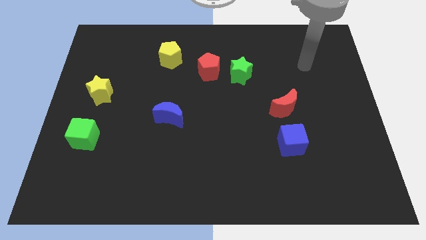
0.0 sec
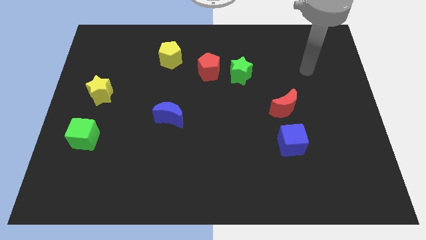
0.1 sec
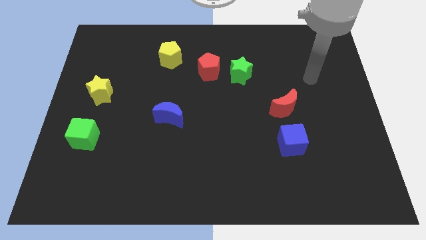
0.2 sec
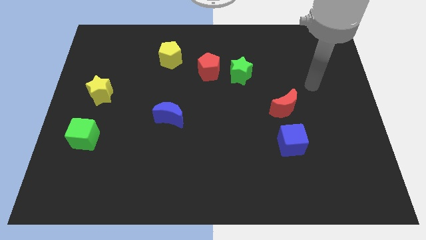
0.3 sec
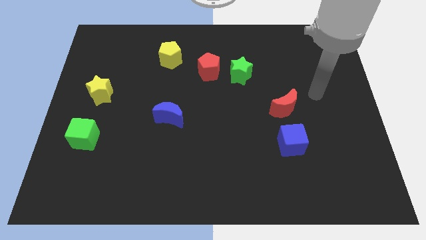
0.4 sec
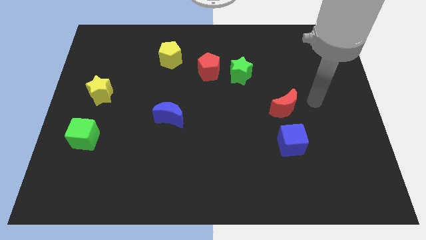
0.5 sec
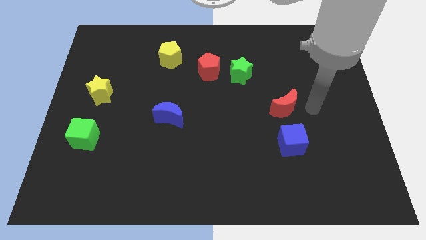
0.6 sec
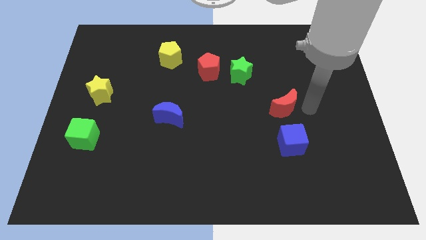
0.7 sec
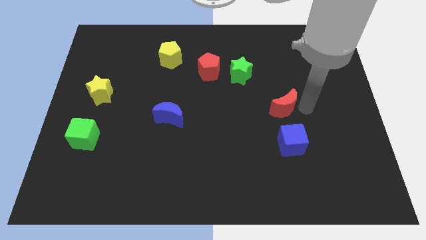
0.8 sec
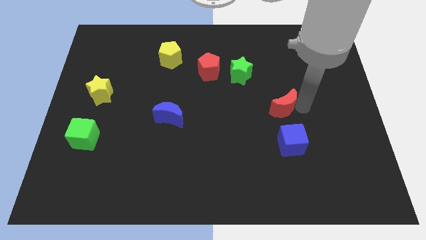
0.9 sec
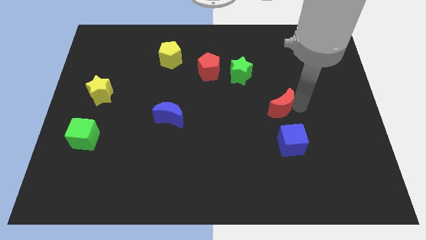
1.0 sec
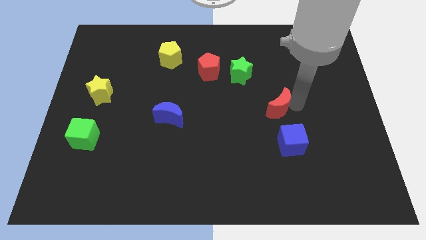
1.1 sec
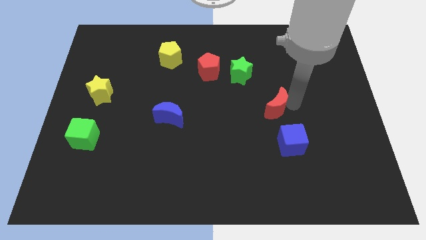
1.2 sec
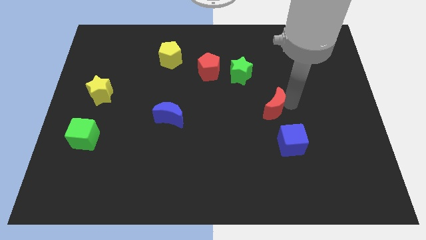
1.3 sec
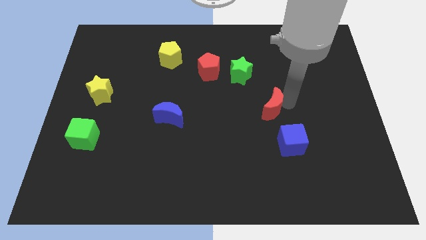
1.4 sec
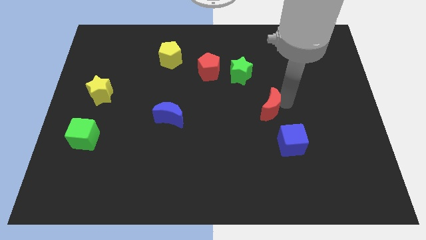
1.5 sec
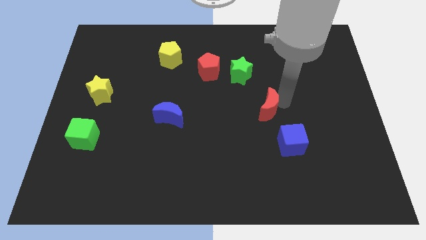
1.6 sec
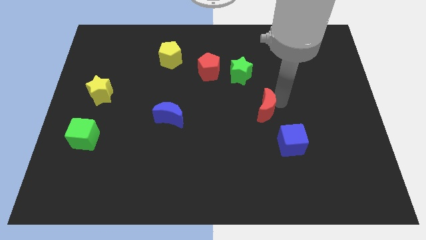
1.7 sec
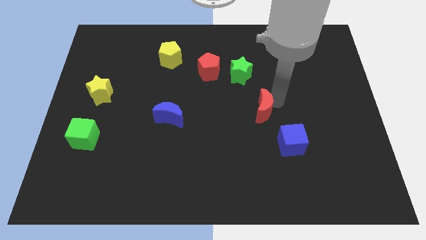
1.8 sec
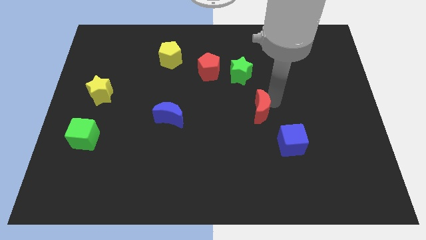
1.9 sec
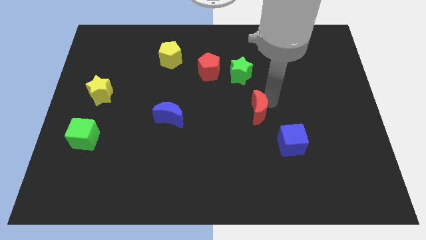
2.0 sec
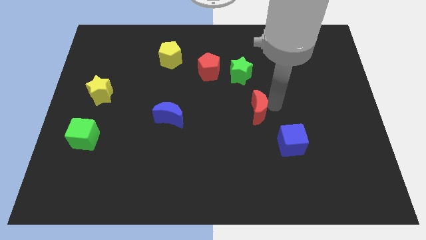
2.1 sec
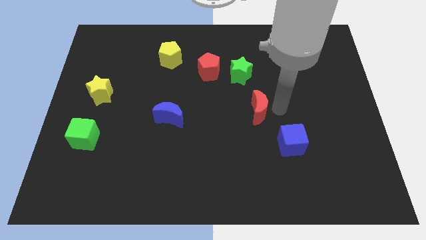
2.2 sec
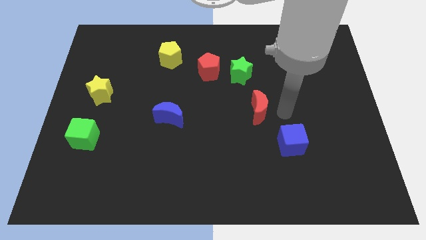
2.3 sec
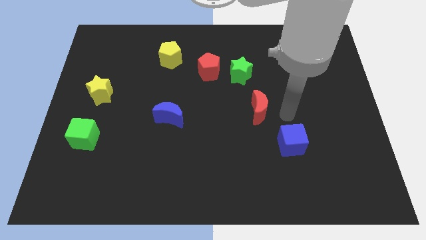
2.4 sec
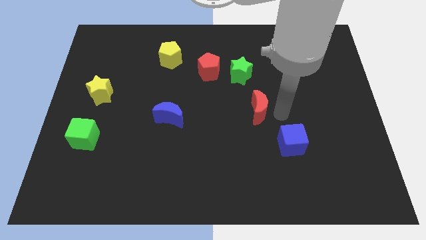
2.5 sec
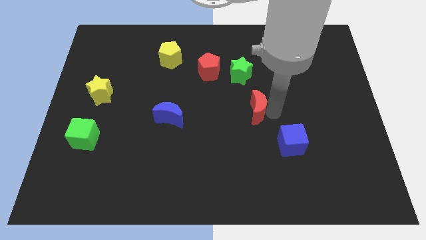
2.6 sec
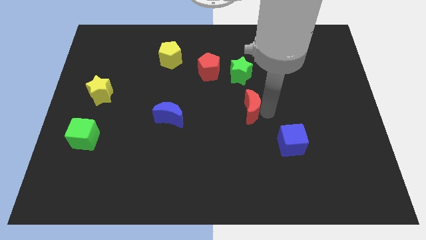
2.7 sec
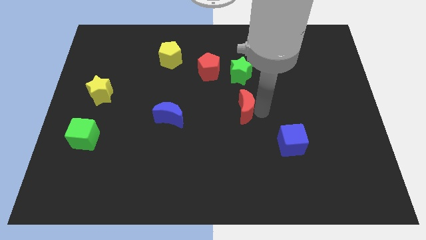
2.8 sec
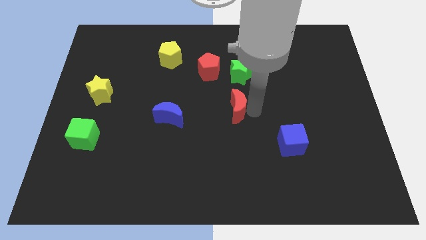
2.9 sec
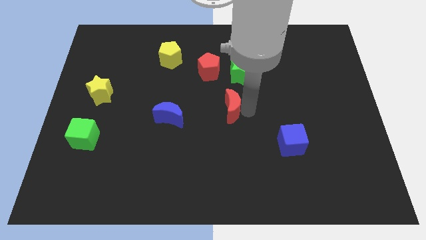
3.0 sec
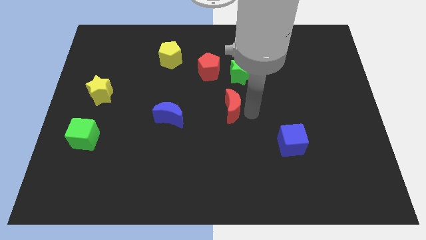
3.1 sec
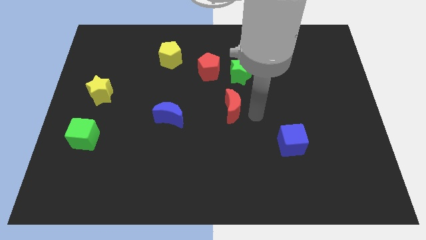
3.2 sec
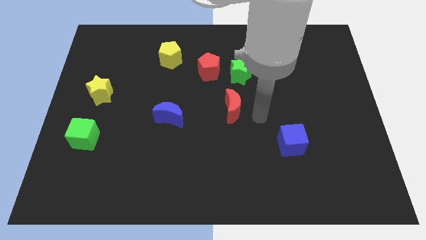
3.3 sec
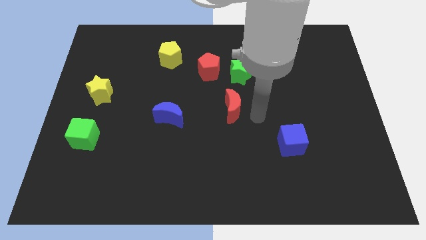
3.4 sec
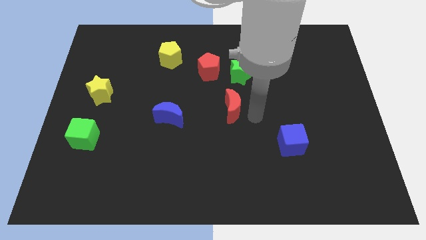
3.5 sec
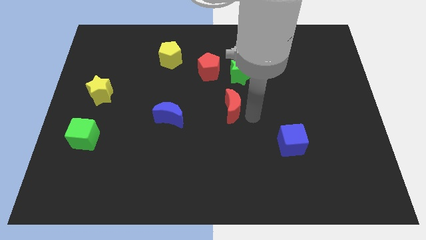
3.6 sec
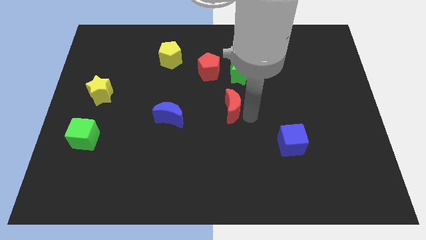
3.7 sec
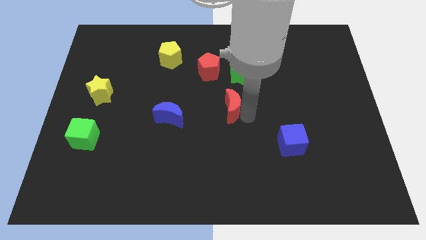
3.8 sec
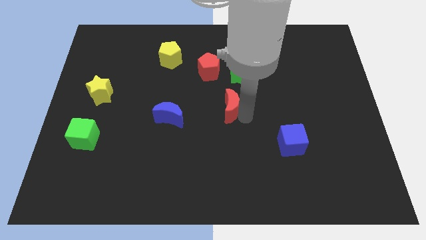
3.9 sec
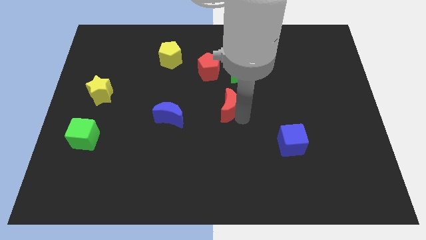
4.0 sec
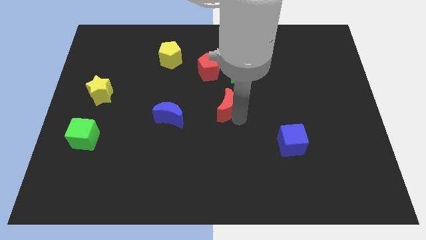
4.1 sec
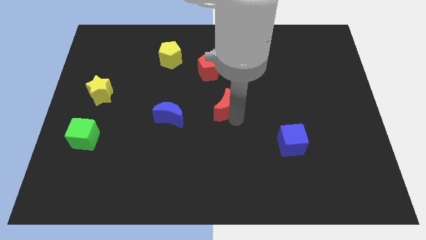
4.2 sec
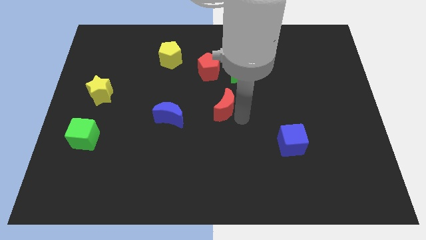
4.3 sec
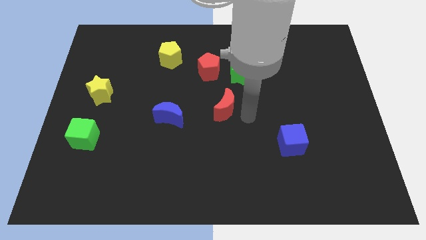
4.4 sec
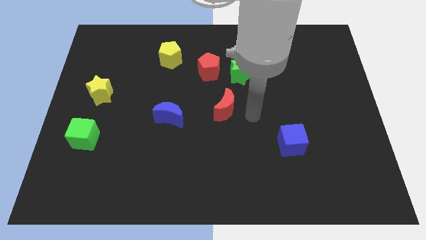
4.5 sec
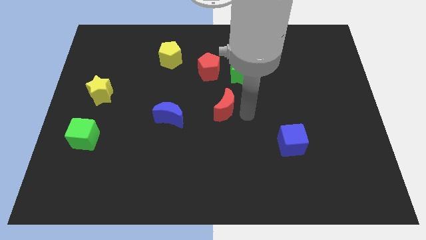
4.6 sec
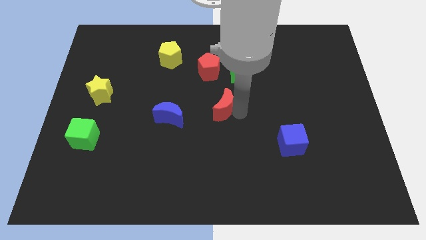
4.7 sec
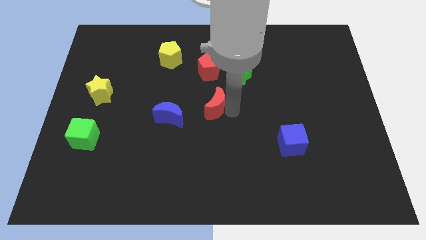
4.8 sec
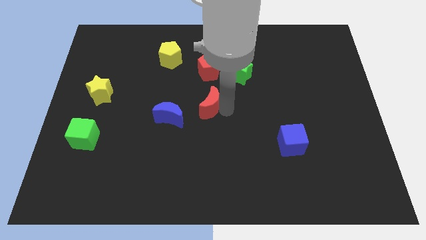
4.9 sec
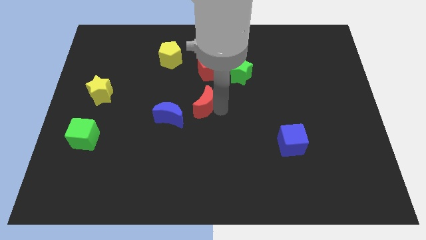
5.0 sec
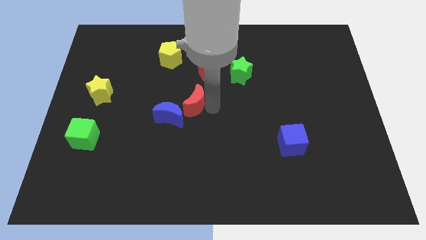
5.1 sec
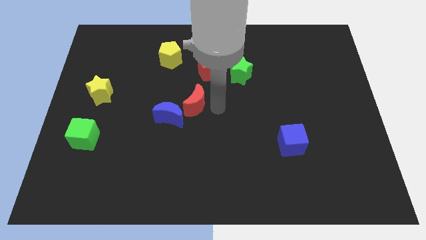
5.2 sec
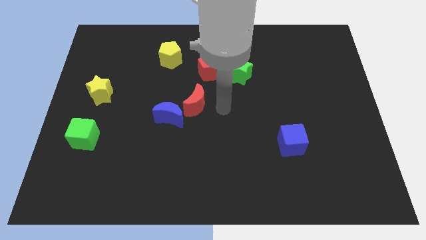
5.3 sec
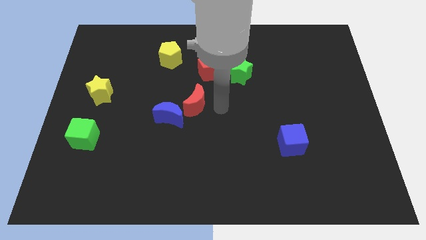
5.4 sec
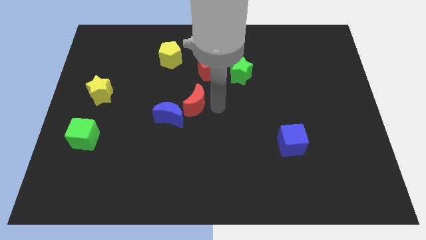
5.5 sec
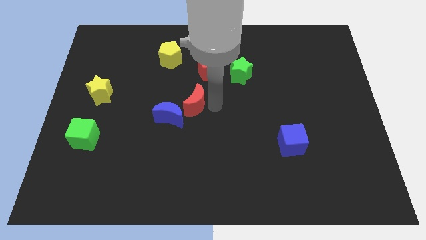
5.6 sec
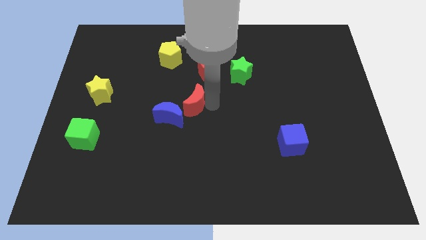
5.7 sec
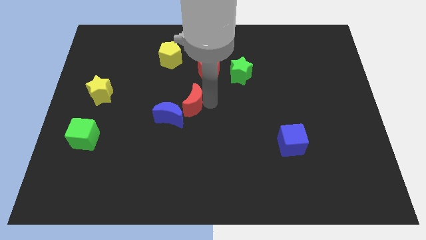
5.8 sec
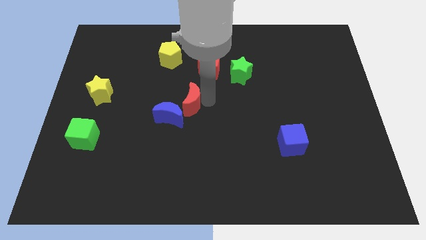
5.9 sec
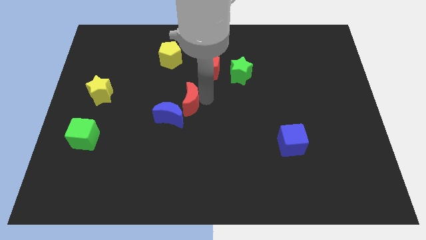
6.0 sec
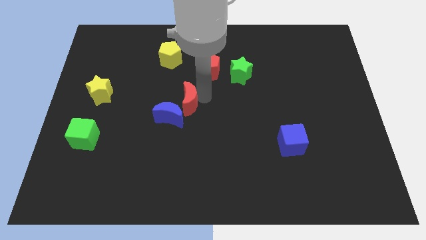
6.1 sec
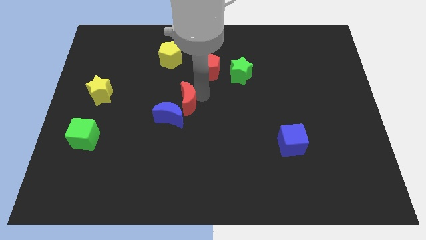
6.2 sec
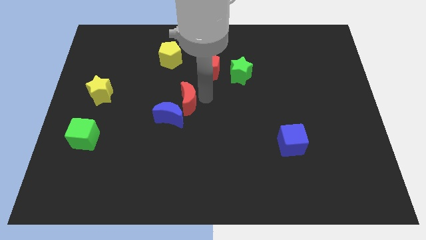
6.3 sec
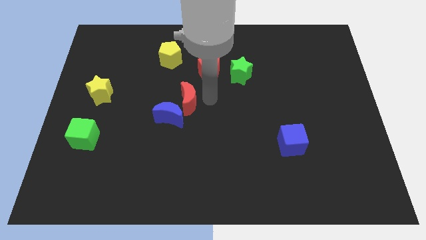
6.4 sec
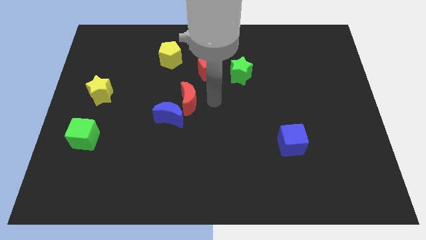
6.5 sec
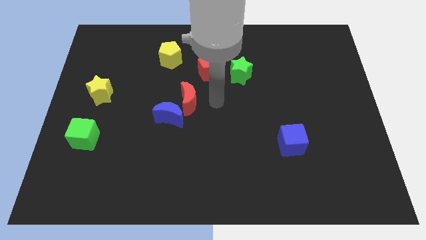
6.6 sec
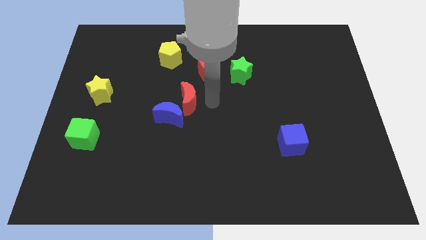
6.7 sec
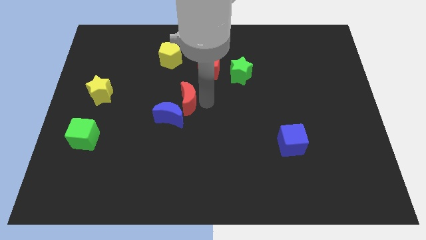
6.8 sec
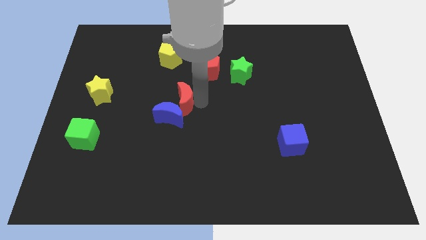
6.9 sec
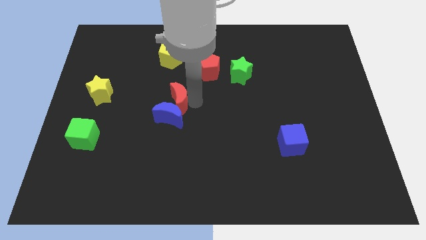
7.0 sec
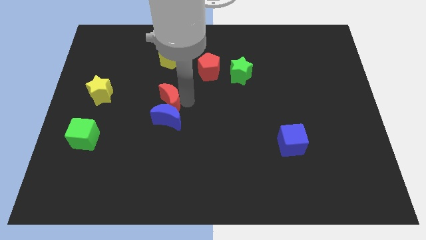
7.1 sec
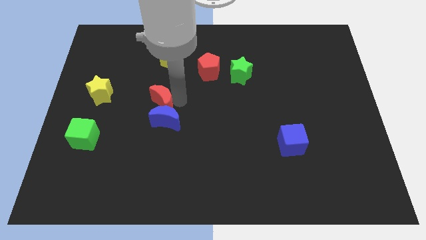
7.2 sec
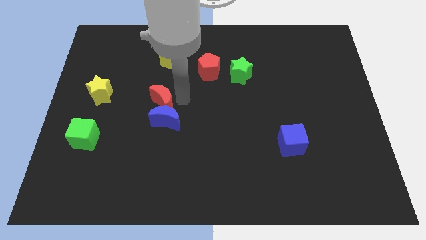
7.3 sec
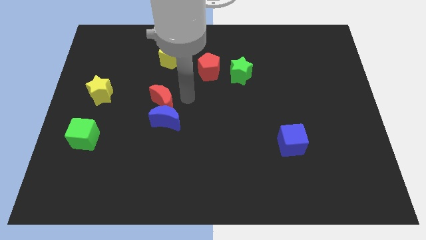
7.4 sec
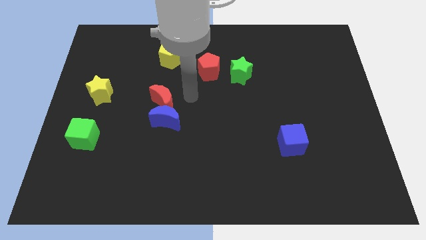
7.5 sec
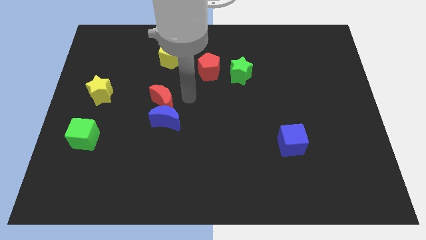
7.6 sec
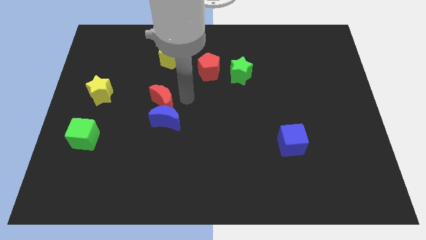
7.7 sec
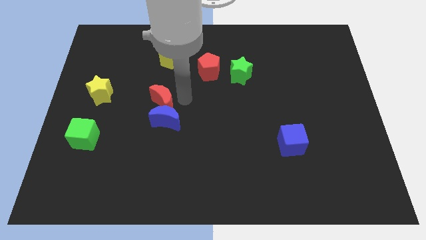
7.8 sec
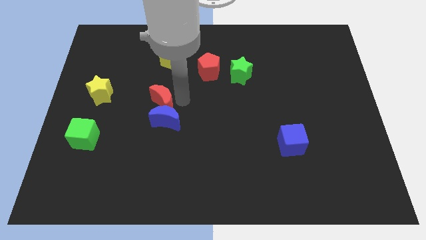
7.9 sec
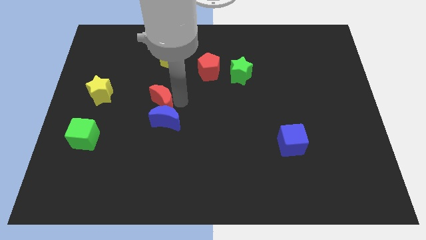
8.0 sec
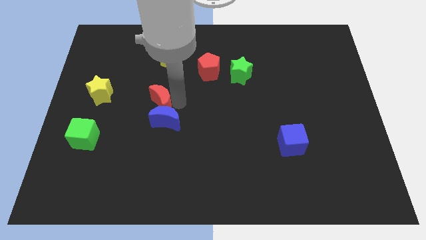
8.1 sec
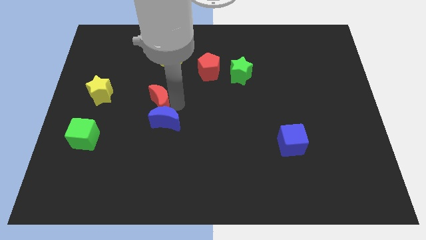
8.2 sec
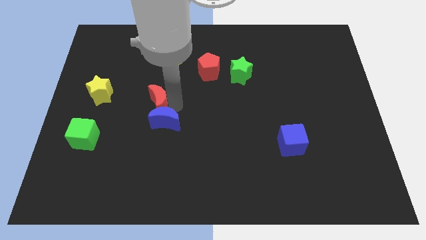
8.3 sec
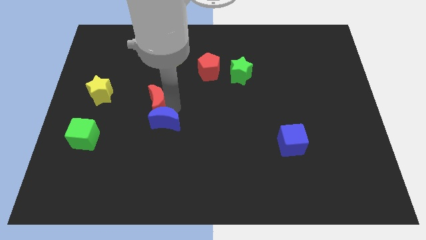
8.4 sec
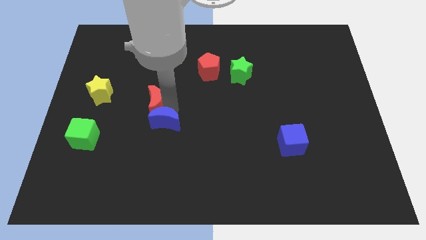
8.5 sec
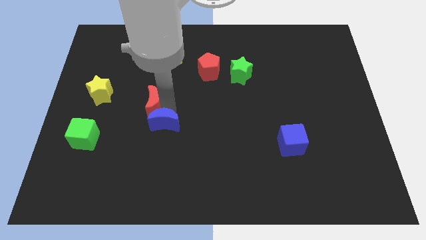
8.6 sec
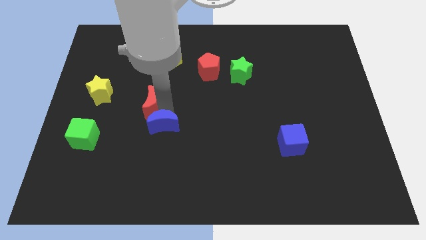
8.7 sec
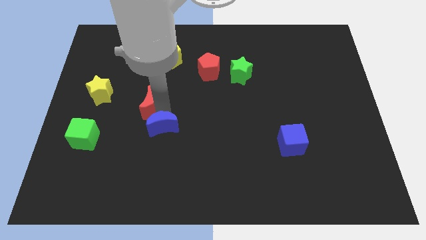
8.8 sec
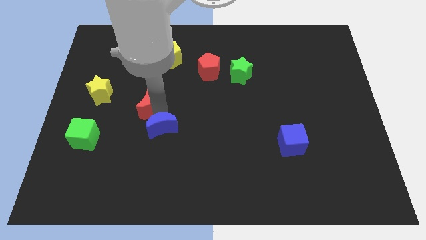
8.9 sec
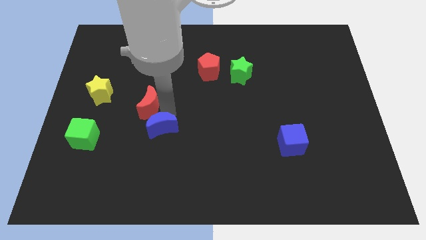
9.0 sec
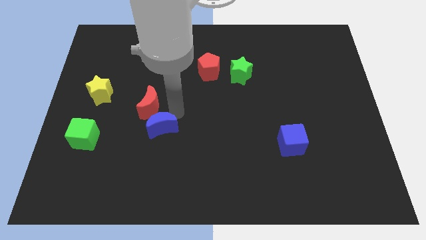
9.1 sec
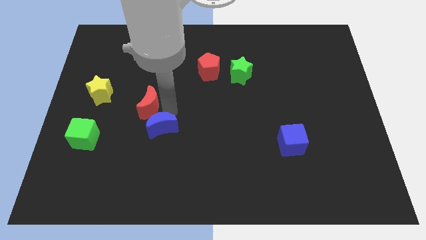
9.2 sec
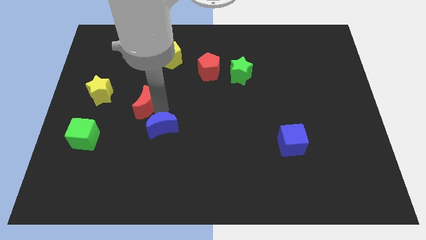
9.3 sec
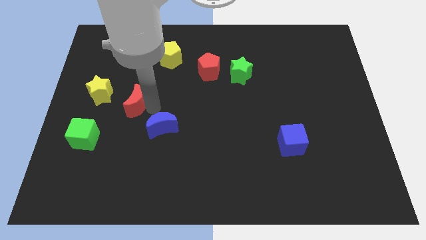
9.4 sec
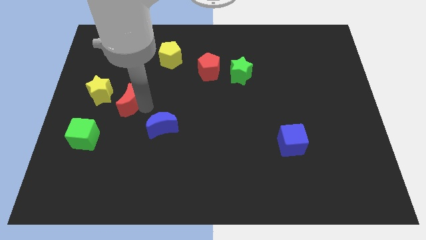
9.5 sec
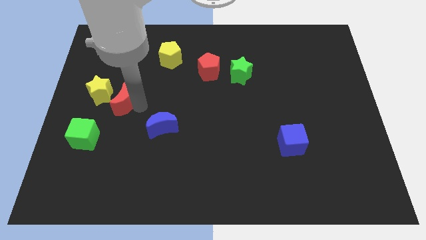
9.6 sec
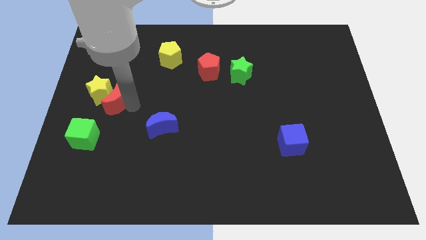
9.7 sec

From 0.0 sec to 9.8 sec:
slide the red moon next to the yellow star
